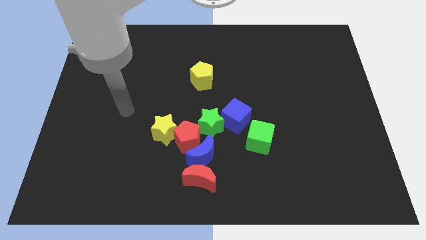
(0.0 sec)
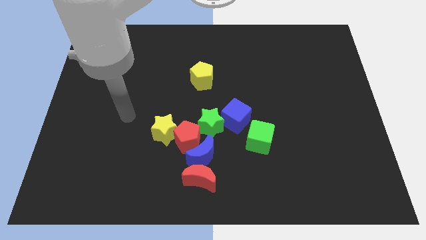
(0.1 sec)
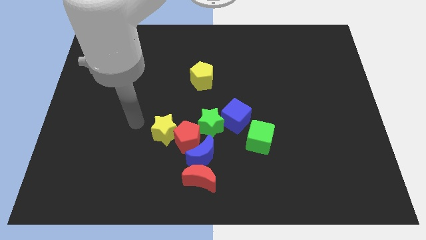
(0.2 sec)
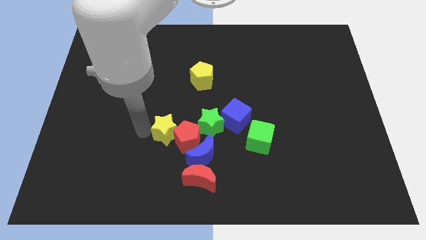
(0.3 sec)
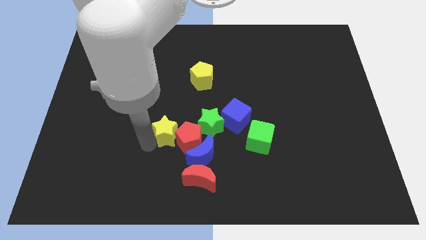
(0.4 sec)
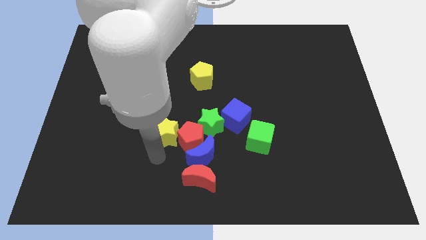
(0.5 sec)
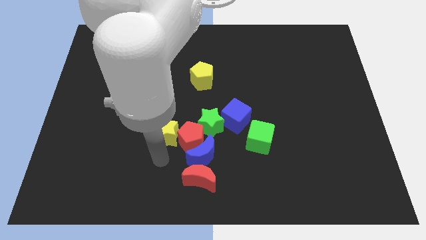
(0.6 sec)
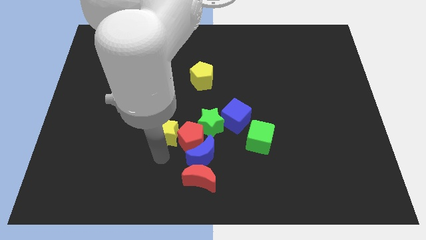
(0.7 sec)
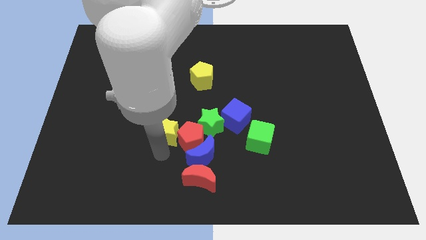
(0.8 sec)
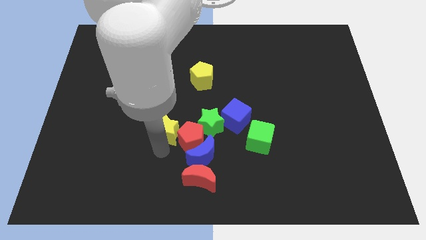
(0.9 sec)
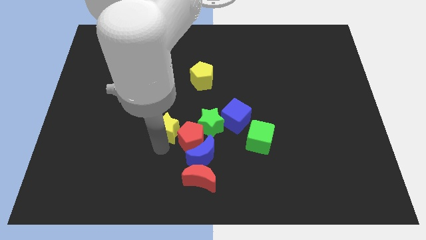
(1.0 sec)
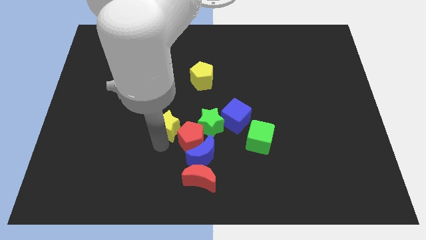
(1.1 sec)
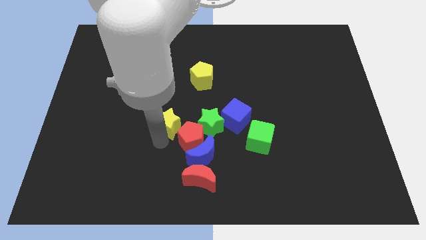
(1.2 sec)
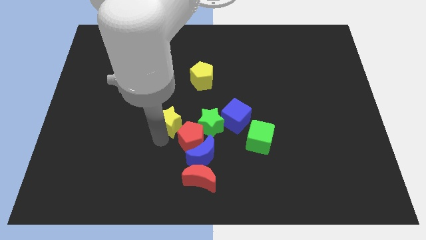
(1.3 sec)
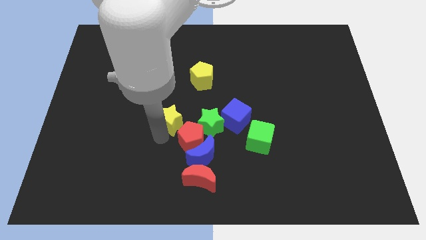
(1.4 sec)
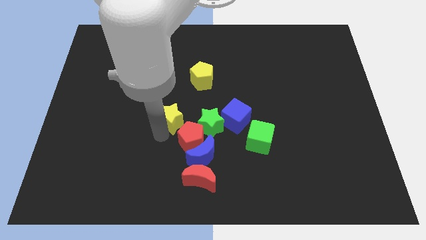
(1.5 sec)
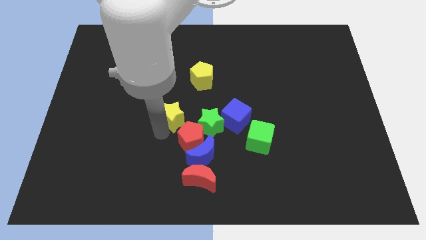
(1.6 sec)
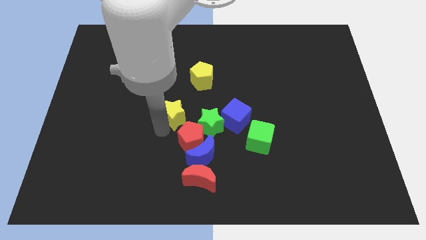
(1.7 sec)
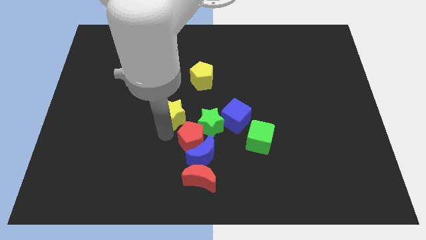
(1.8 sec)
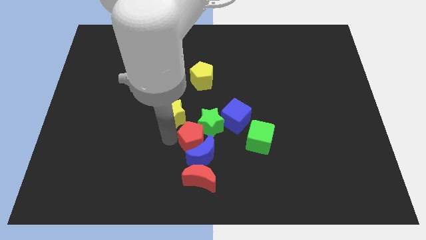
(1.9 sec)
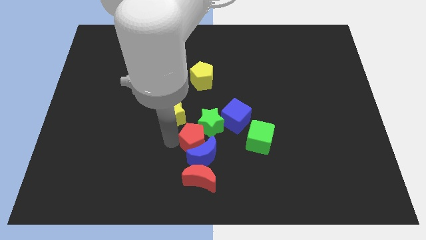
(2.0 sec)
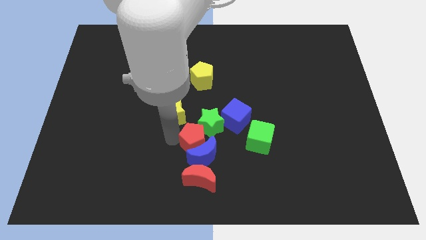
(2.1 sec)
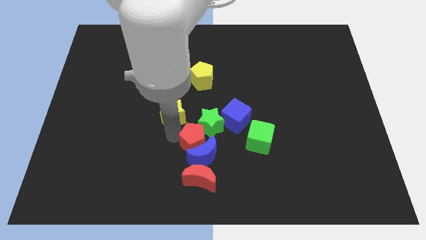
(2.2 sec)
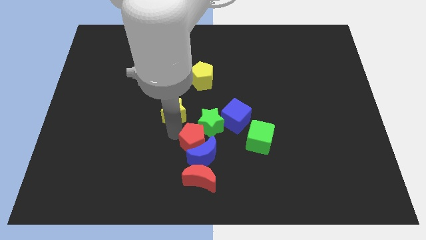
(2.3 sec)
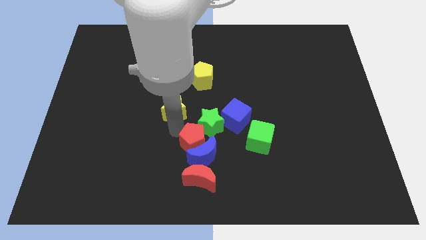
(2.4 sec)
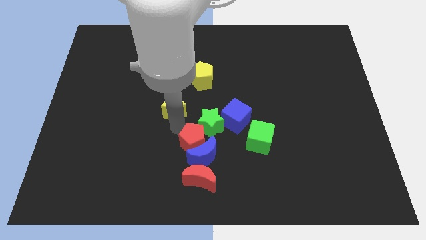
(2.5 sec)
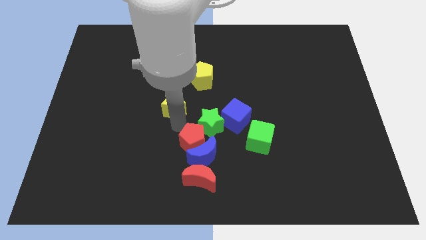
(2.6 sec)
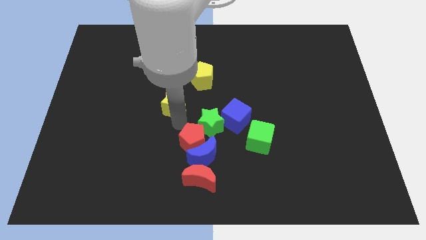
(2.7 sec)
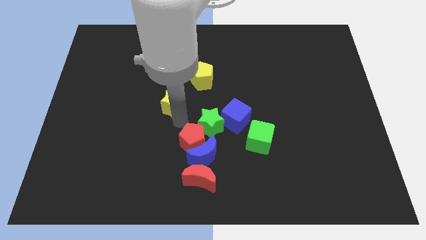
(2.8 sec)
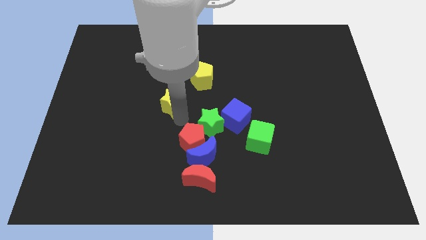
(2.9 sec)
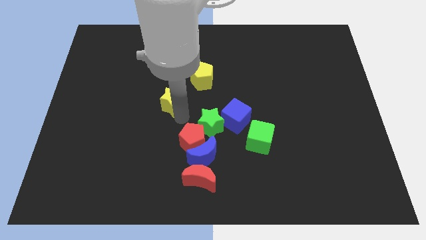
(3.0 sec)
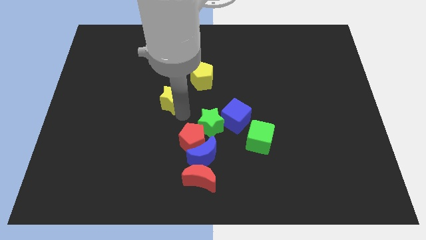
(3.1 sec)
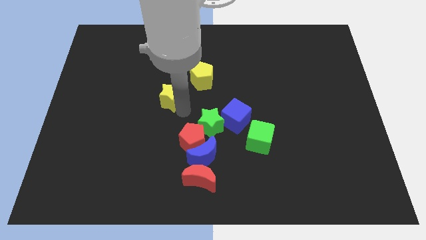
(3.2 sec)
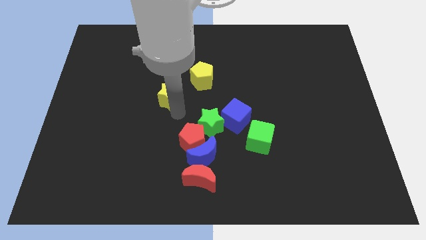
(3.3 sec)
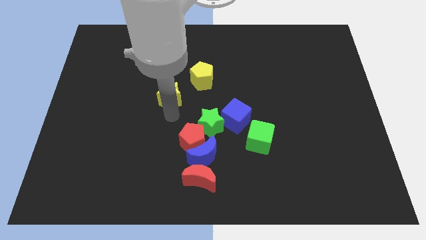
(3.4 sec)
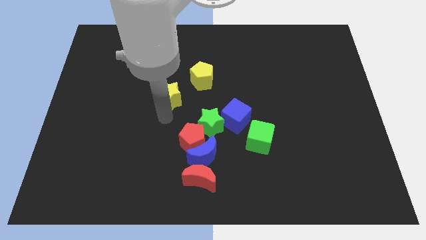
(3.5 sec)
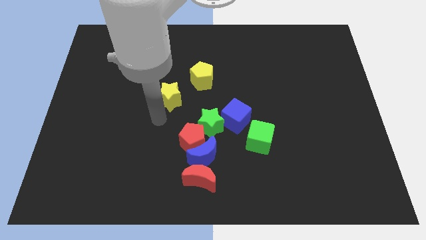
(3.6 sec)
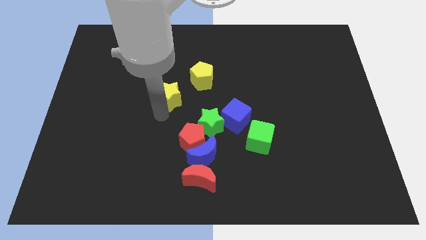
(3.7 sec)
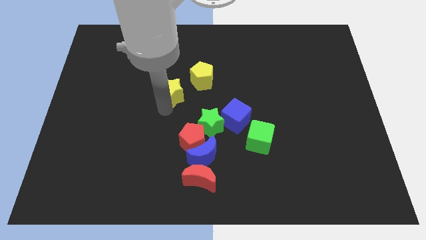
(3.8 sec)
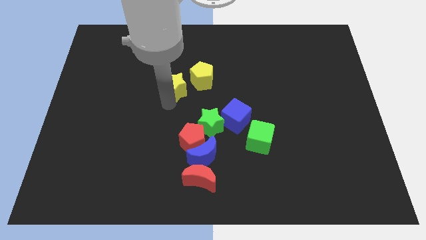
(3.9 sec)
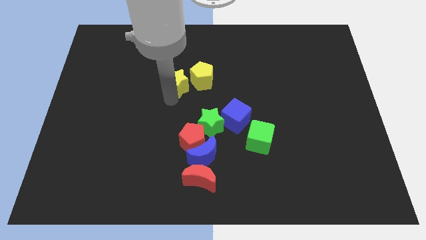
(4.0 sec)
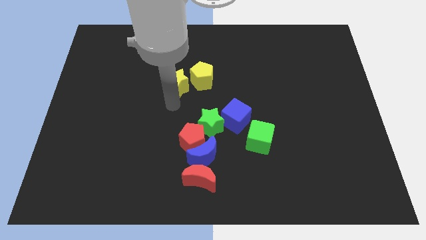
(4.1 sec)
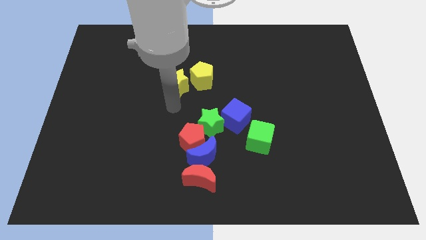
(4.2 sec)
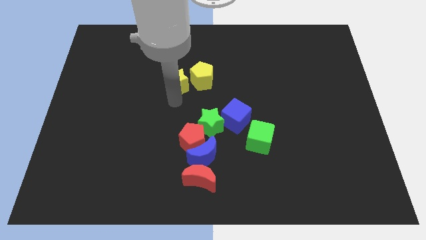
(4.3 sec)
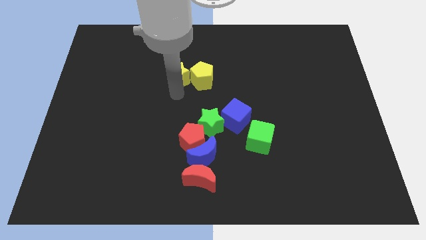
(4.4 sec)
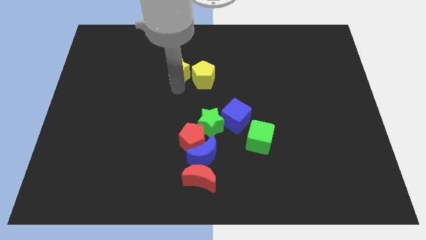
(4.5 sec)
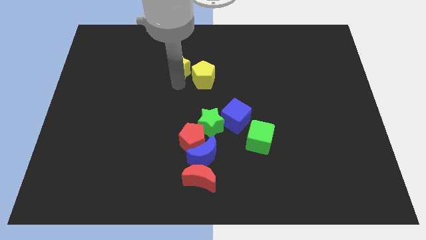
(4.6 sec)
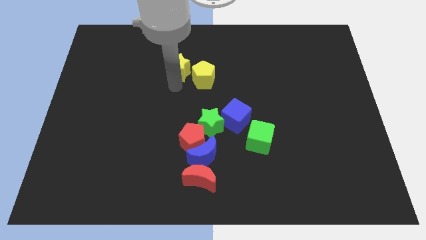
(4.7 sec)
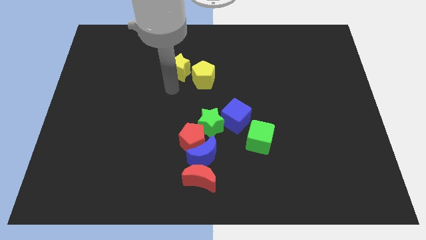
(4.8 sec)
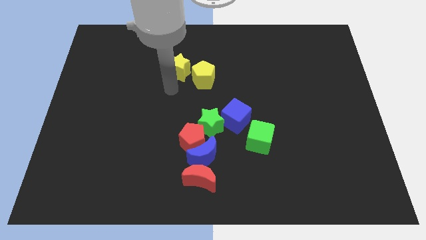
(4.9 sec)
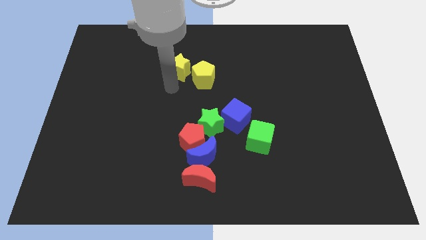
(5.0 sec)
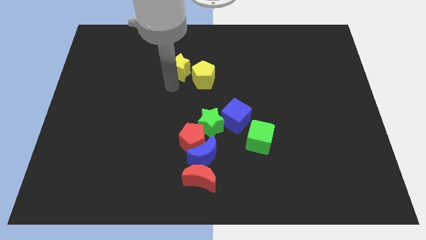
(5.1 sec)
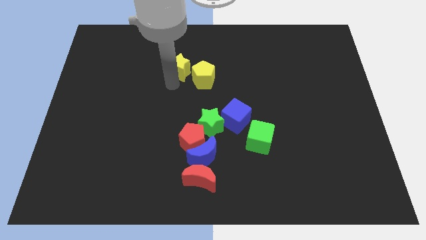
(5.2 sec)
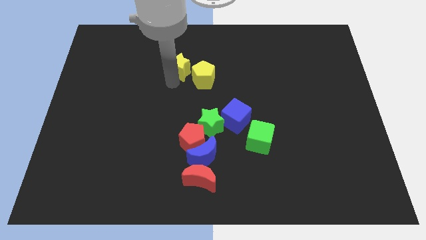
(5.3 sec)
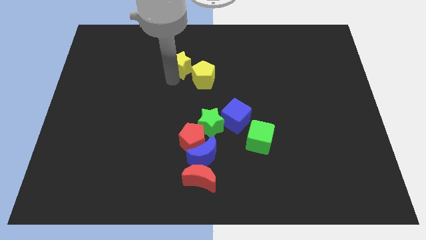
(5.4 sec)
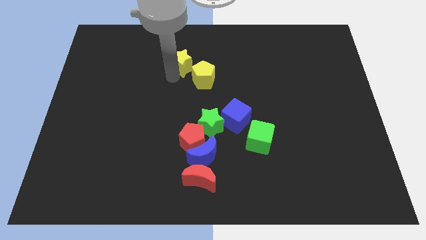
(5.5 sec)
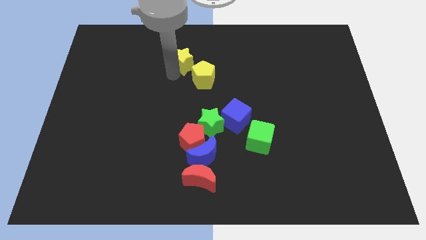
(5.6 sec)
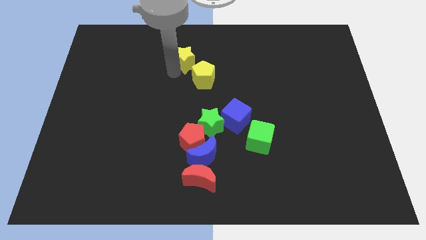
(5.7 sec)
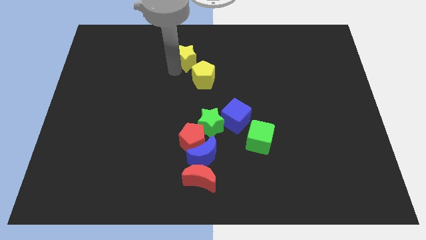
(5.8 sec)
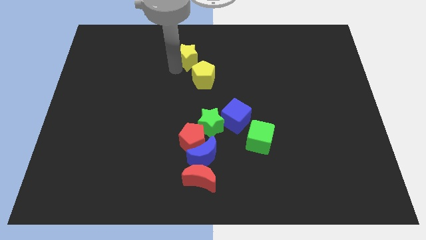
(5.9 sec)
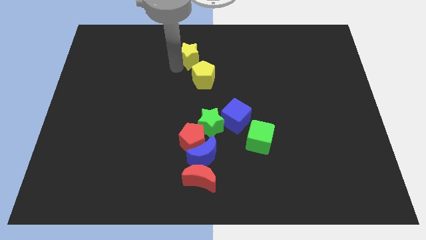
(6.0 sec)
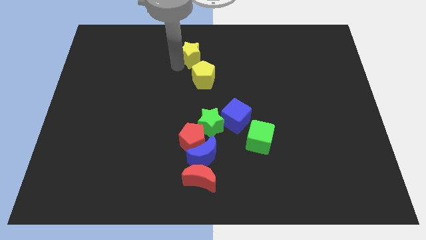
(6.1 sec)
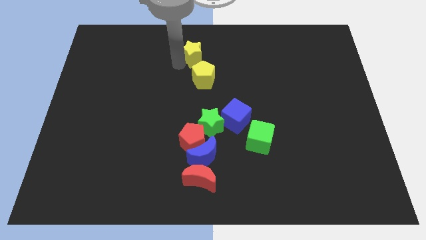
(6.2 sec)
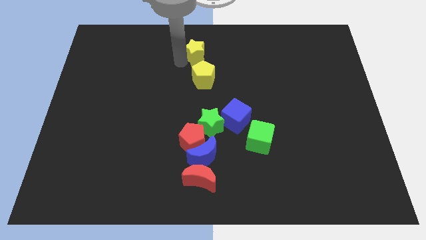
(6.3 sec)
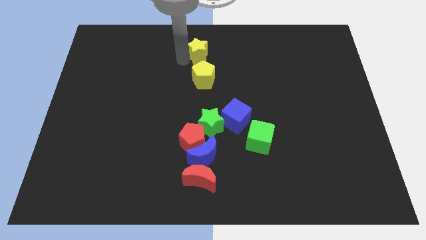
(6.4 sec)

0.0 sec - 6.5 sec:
push the yellow star to the top
